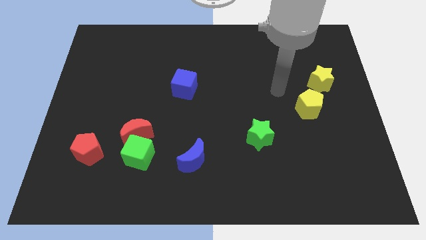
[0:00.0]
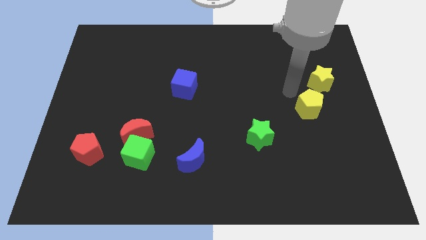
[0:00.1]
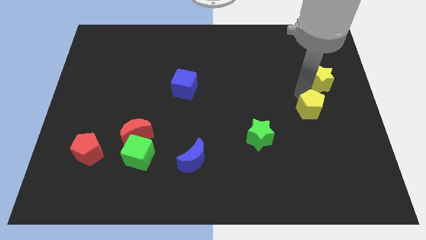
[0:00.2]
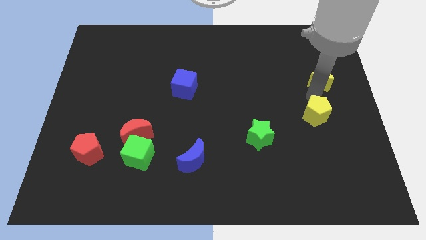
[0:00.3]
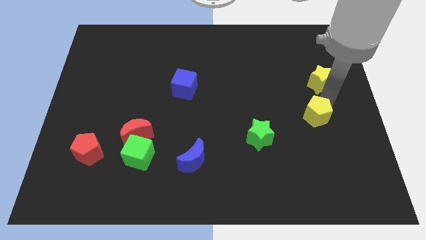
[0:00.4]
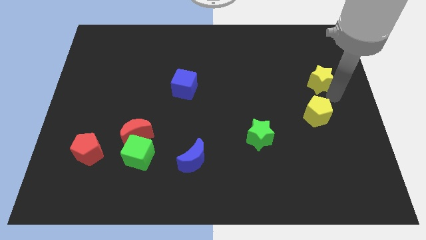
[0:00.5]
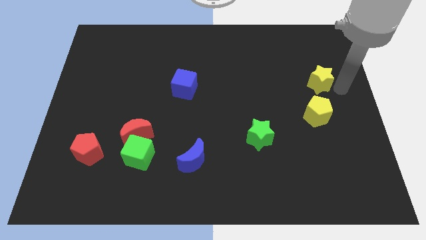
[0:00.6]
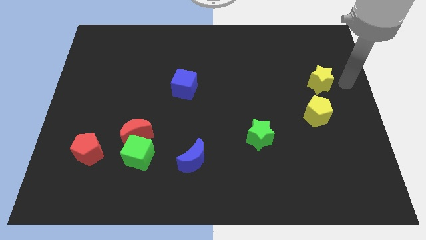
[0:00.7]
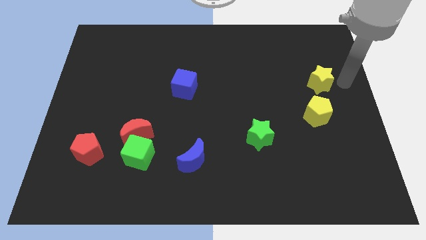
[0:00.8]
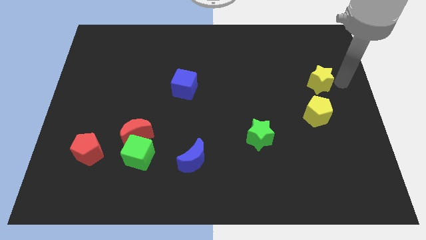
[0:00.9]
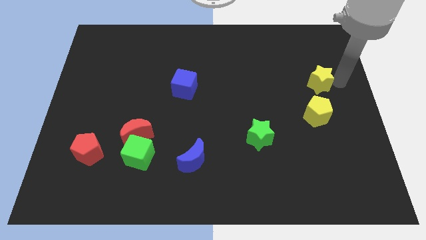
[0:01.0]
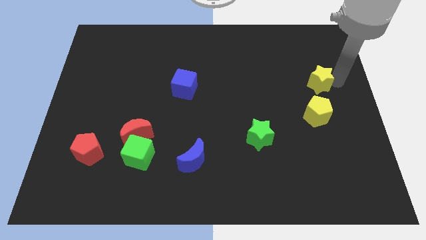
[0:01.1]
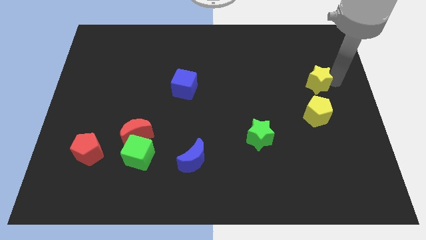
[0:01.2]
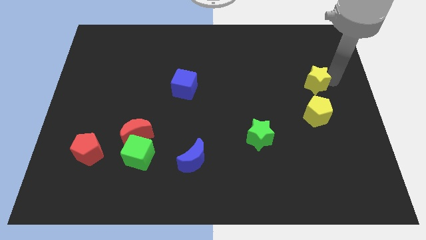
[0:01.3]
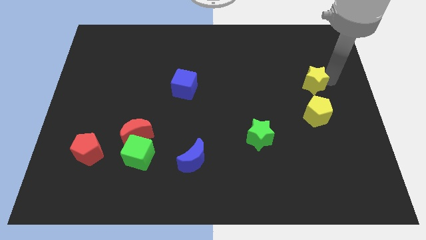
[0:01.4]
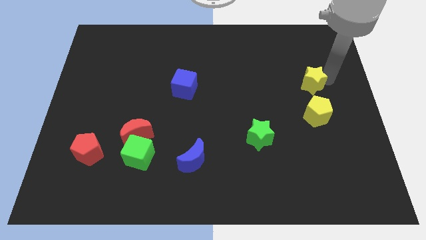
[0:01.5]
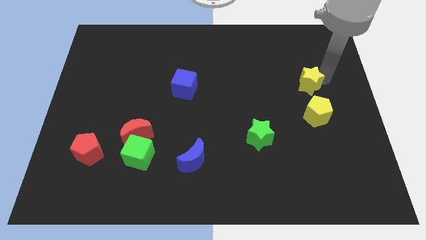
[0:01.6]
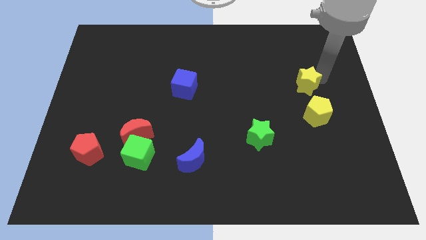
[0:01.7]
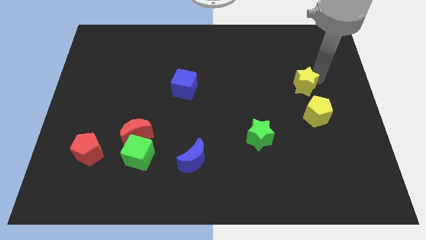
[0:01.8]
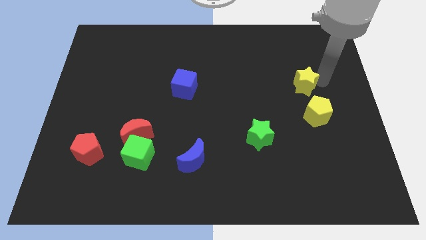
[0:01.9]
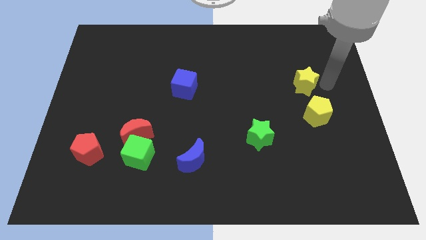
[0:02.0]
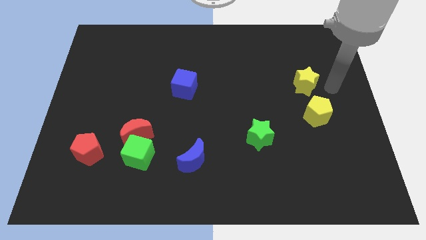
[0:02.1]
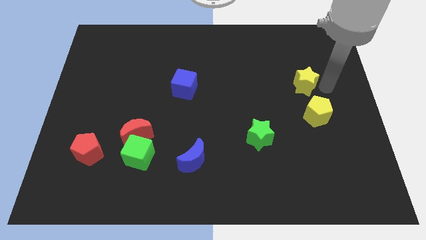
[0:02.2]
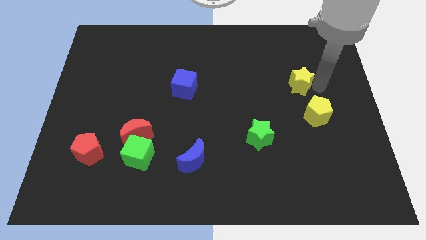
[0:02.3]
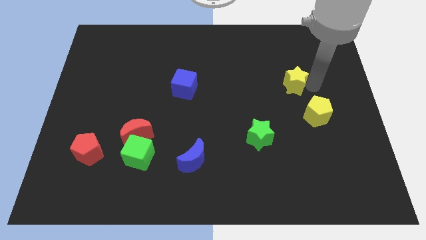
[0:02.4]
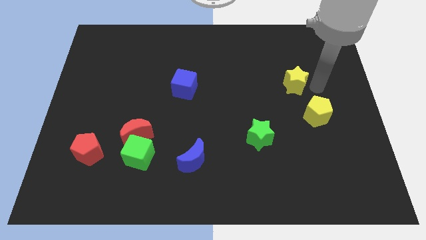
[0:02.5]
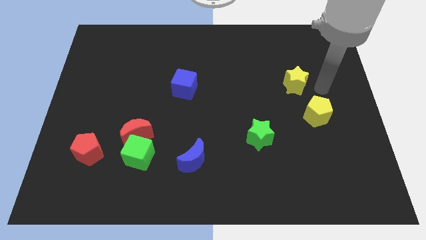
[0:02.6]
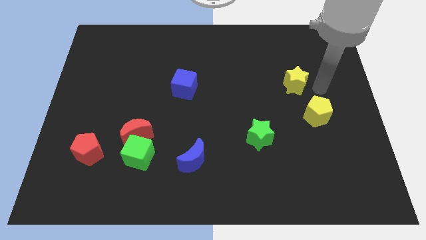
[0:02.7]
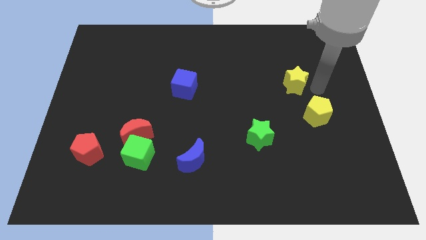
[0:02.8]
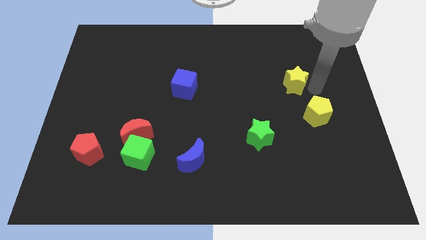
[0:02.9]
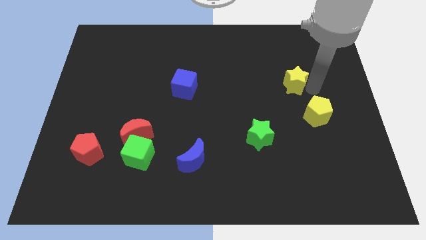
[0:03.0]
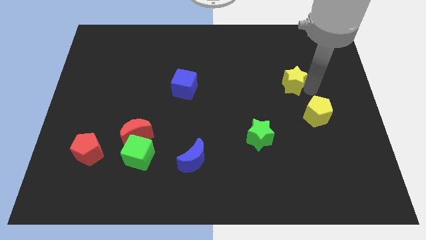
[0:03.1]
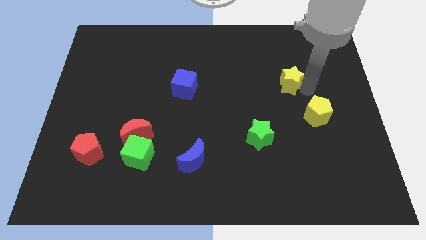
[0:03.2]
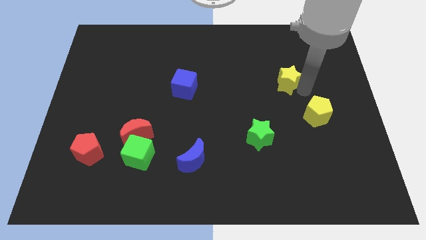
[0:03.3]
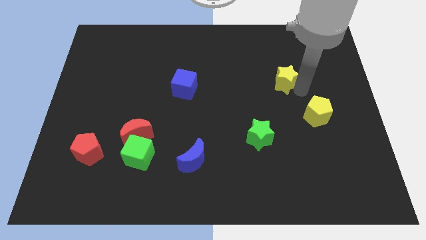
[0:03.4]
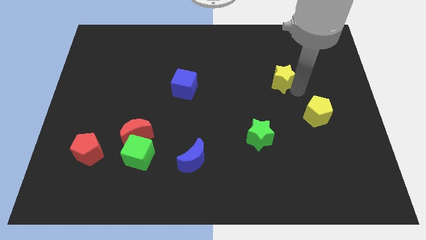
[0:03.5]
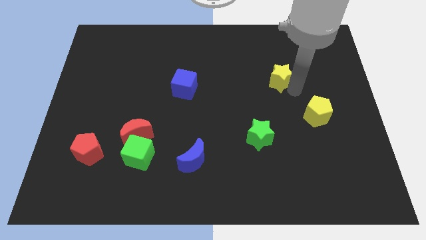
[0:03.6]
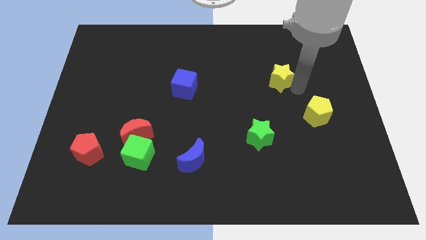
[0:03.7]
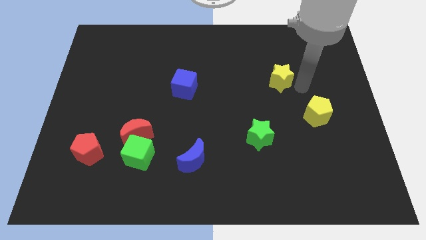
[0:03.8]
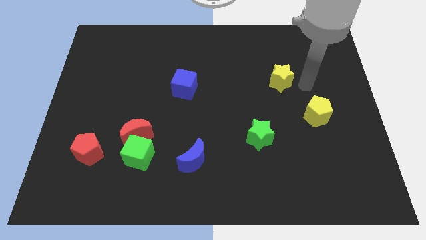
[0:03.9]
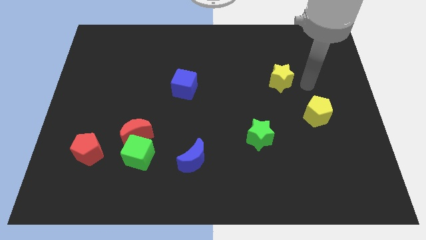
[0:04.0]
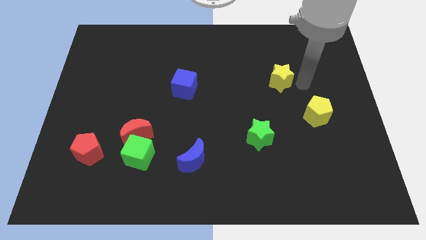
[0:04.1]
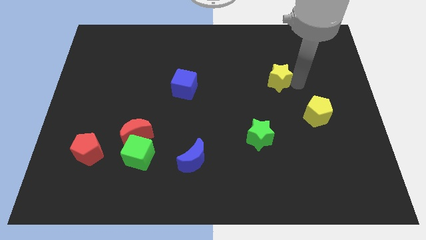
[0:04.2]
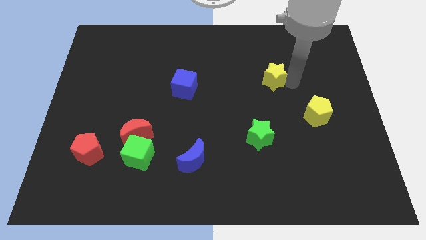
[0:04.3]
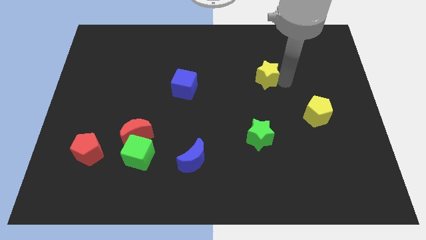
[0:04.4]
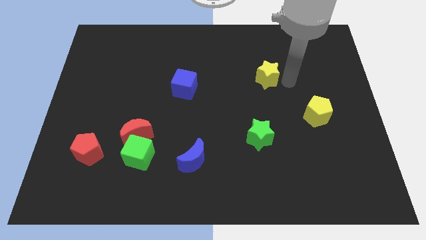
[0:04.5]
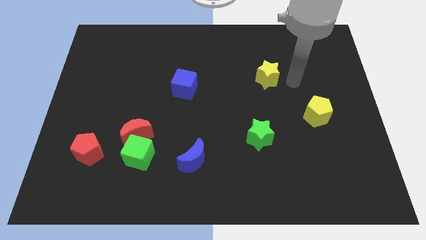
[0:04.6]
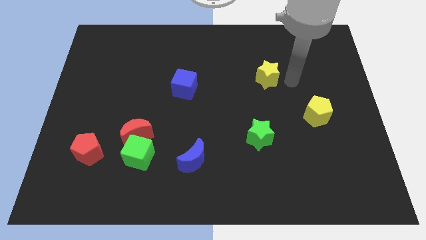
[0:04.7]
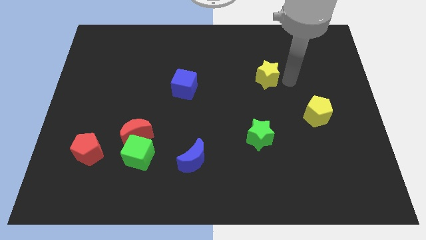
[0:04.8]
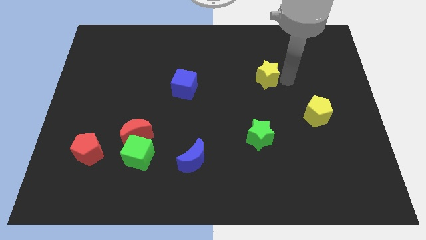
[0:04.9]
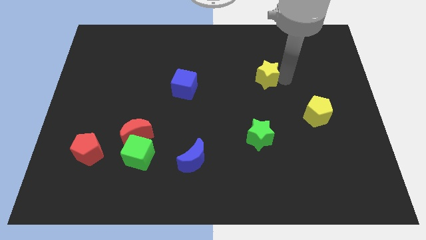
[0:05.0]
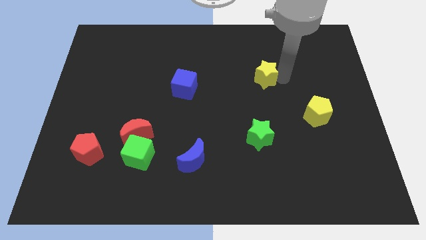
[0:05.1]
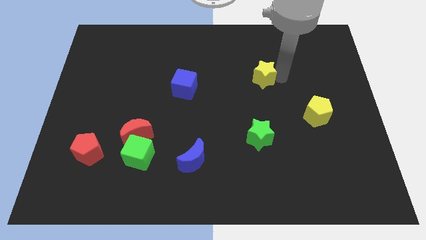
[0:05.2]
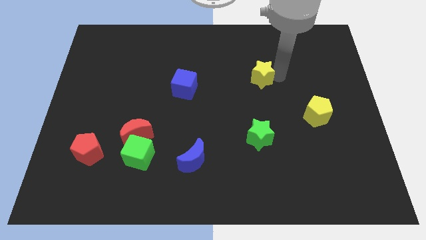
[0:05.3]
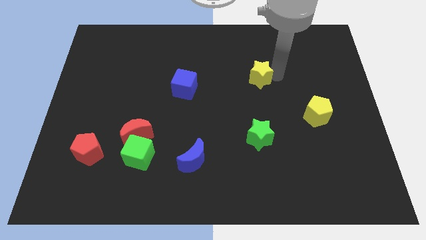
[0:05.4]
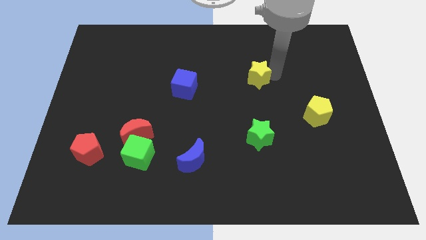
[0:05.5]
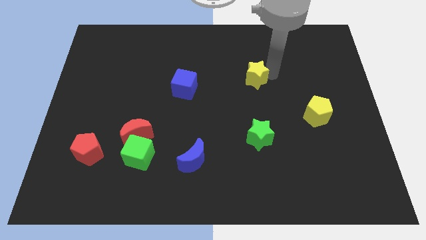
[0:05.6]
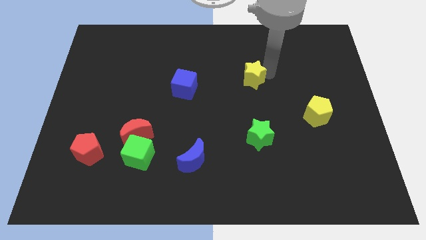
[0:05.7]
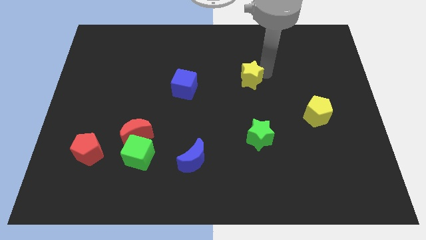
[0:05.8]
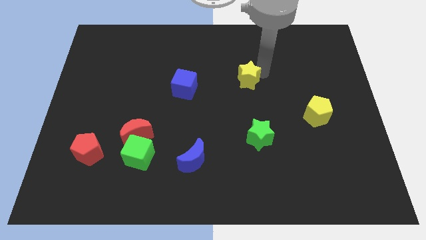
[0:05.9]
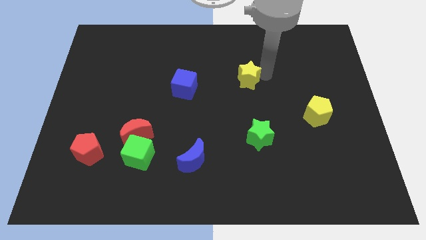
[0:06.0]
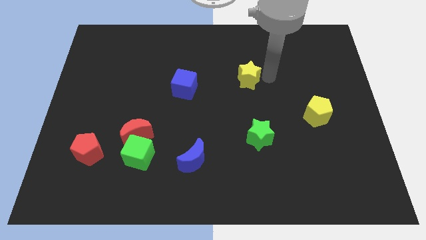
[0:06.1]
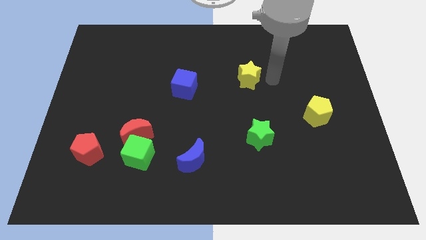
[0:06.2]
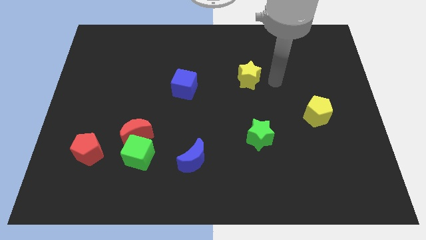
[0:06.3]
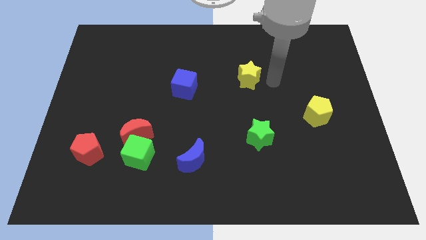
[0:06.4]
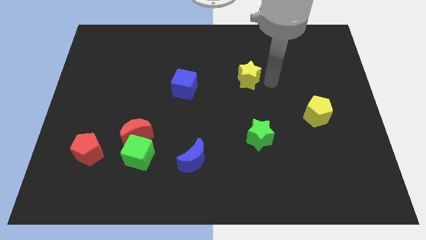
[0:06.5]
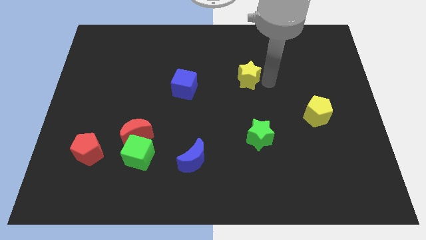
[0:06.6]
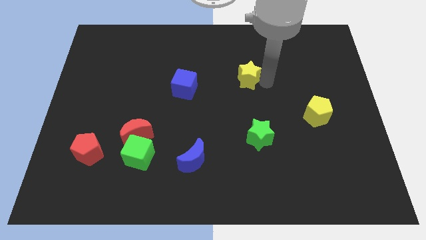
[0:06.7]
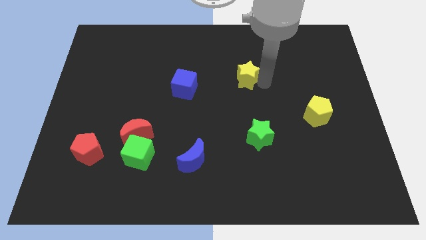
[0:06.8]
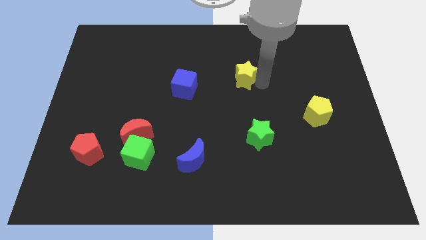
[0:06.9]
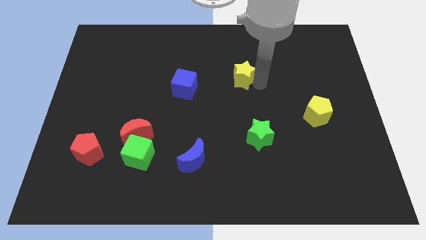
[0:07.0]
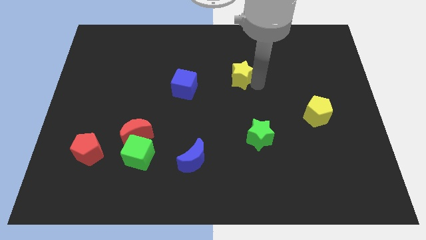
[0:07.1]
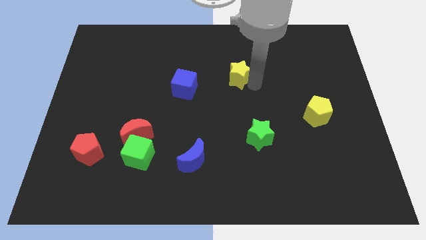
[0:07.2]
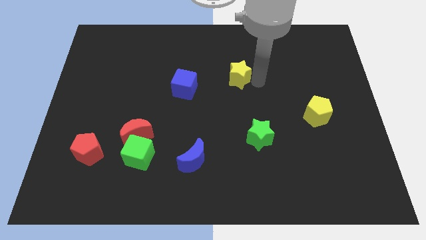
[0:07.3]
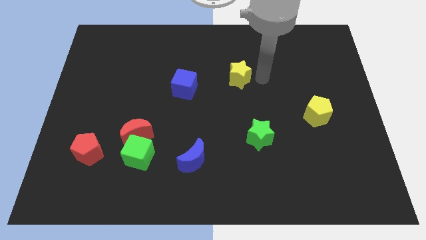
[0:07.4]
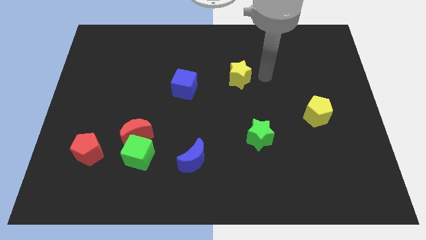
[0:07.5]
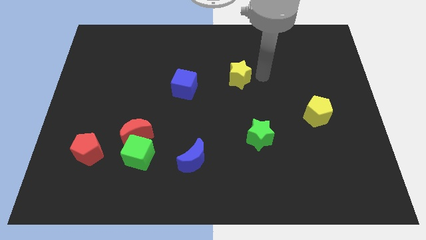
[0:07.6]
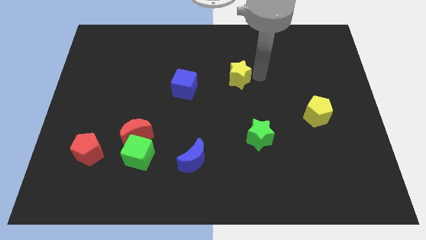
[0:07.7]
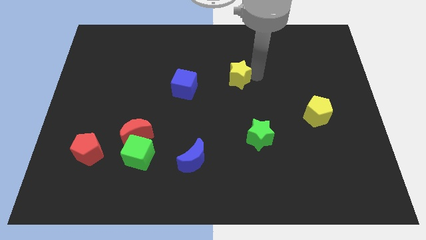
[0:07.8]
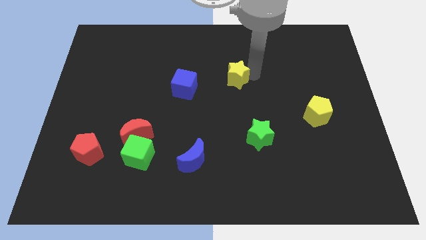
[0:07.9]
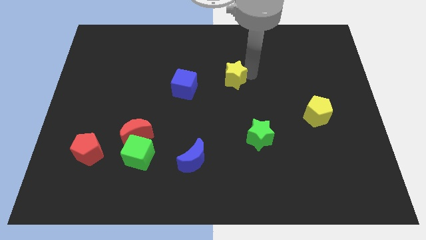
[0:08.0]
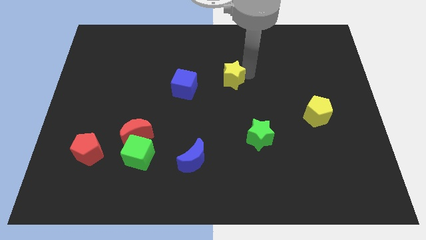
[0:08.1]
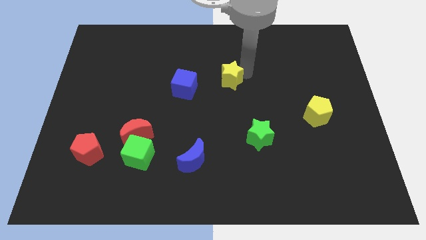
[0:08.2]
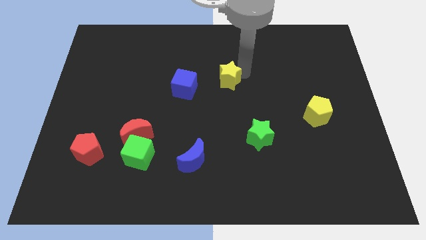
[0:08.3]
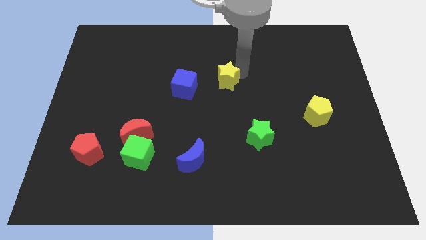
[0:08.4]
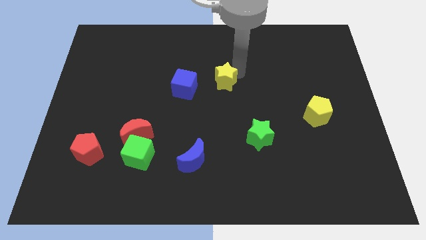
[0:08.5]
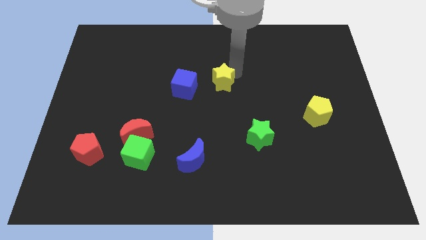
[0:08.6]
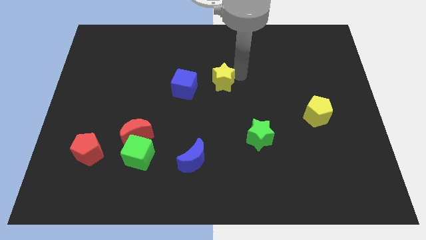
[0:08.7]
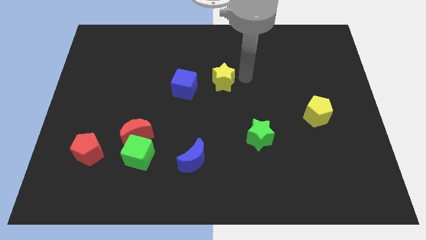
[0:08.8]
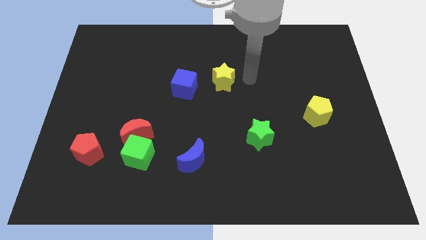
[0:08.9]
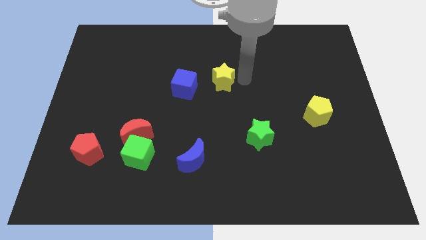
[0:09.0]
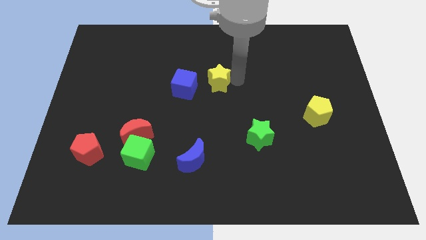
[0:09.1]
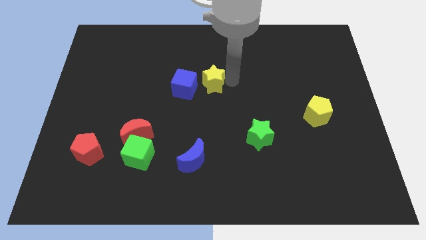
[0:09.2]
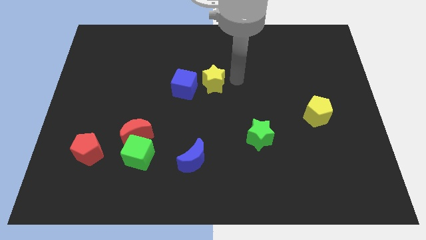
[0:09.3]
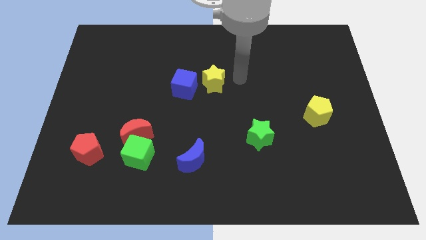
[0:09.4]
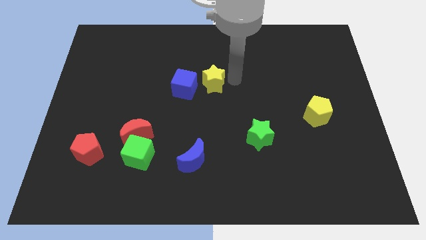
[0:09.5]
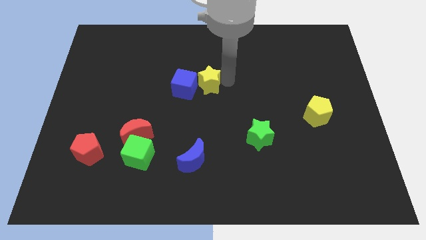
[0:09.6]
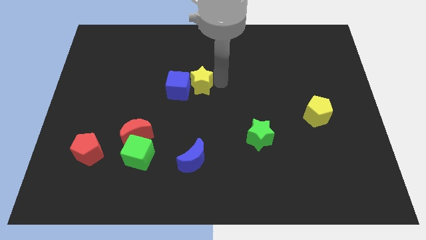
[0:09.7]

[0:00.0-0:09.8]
slide the yellow star to the blue cube
